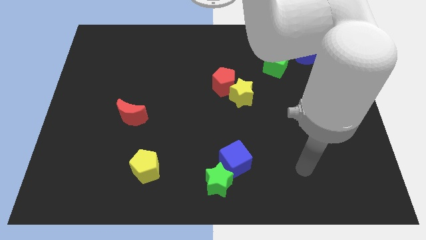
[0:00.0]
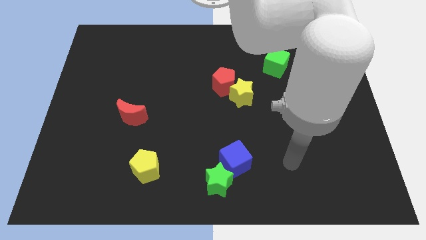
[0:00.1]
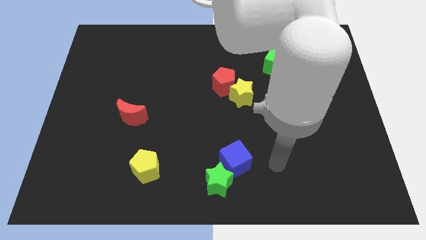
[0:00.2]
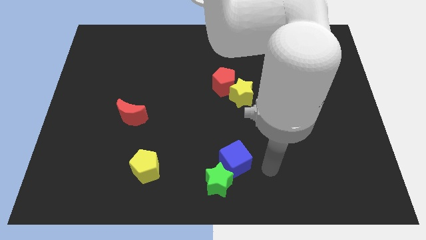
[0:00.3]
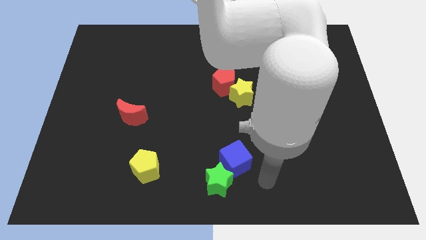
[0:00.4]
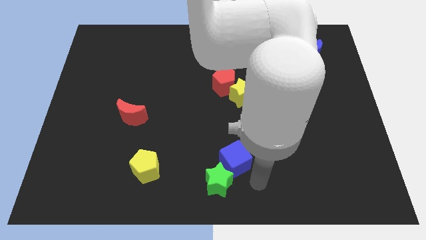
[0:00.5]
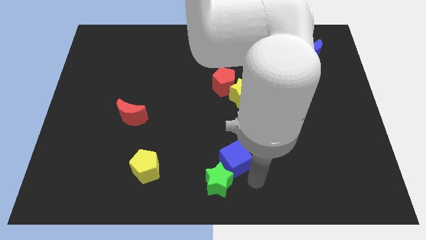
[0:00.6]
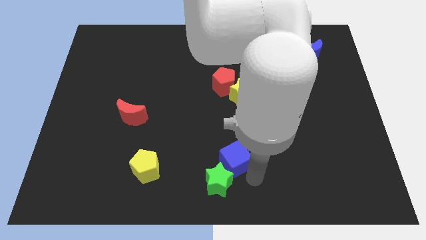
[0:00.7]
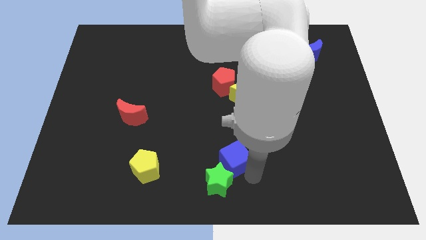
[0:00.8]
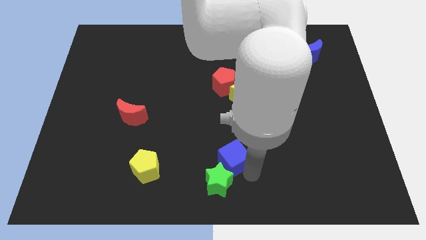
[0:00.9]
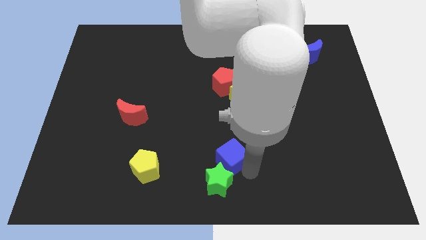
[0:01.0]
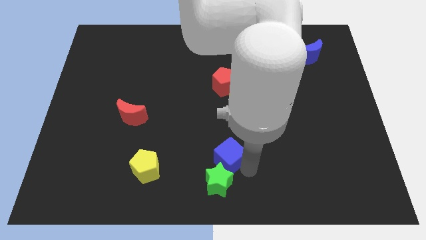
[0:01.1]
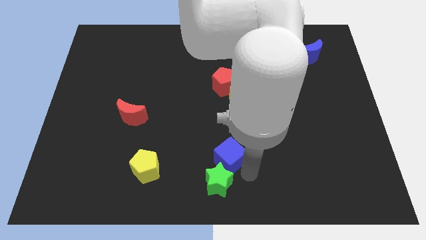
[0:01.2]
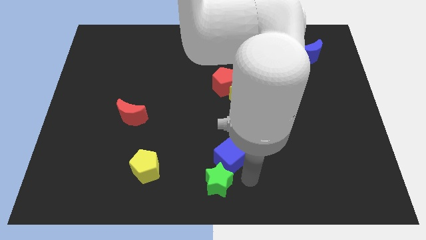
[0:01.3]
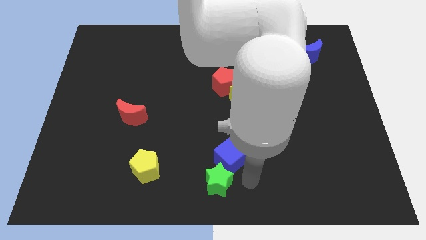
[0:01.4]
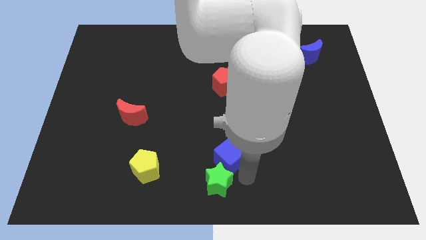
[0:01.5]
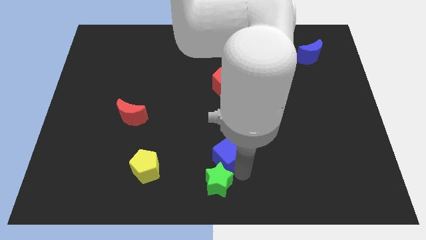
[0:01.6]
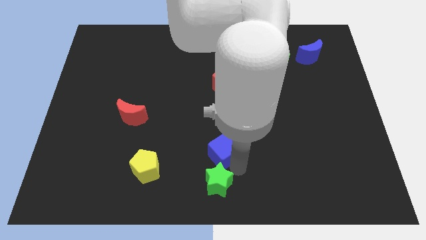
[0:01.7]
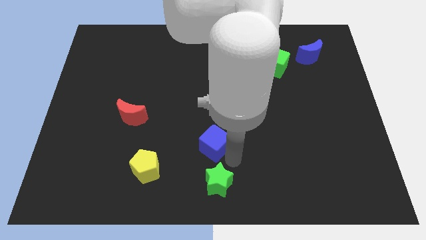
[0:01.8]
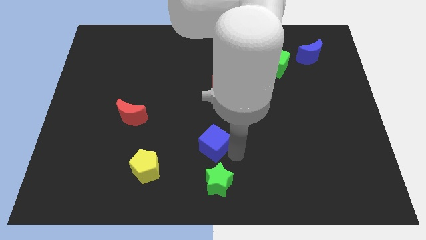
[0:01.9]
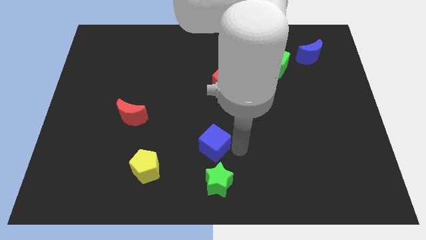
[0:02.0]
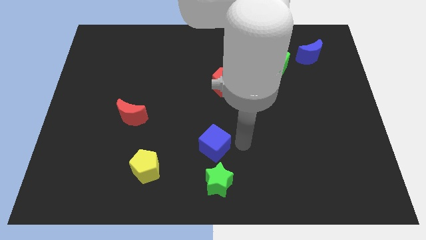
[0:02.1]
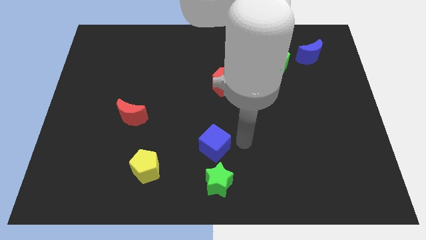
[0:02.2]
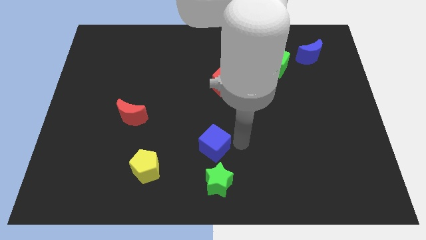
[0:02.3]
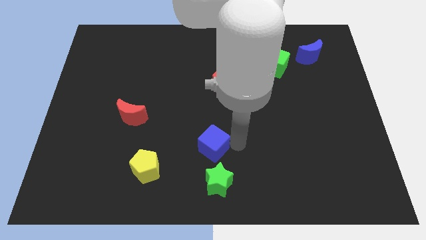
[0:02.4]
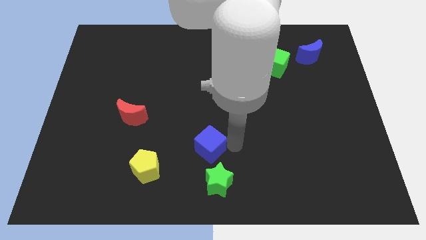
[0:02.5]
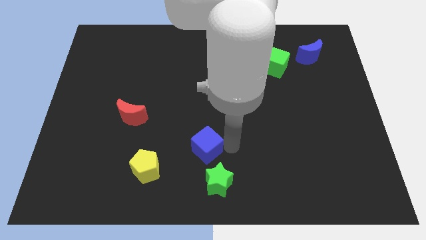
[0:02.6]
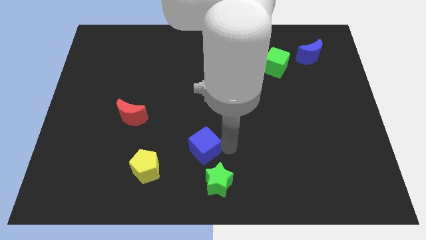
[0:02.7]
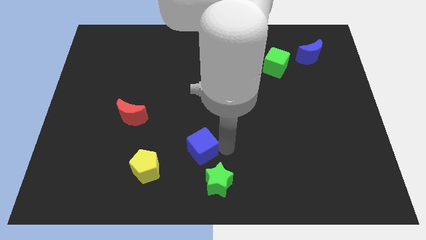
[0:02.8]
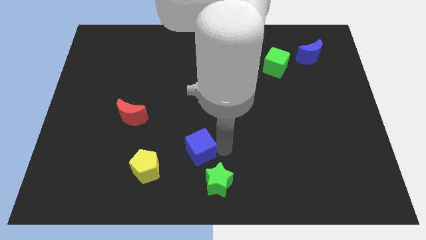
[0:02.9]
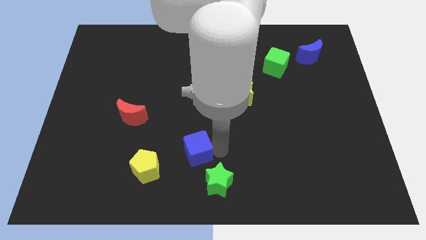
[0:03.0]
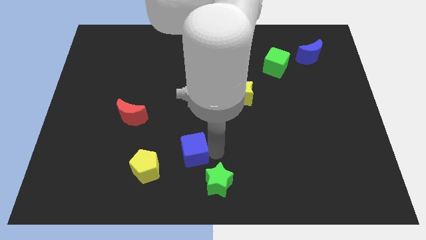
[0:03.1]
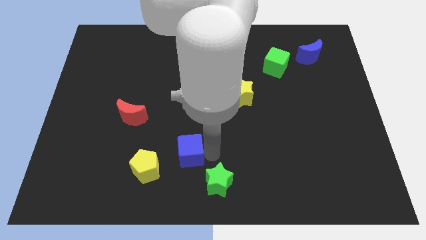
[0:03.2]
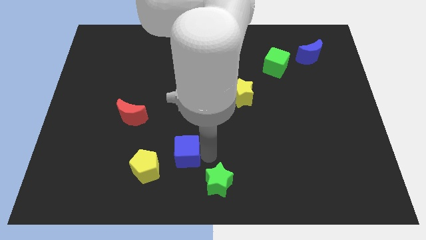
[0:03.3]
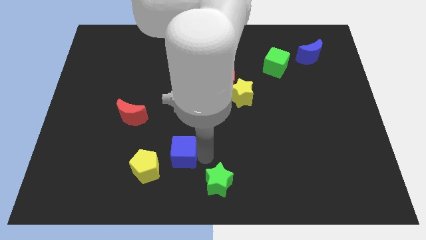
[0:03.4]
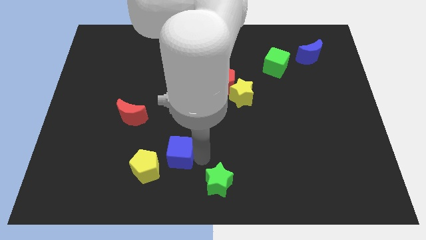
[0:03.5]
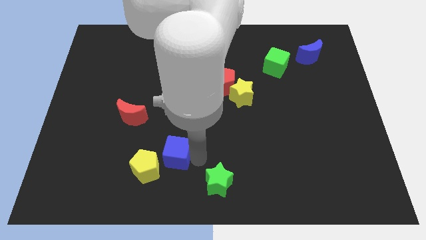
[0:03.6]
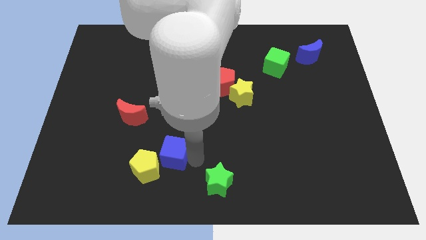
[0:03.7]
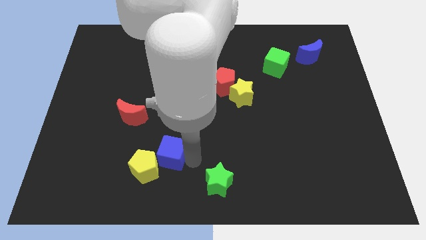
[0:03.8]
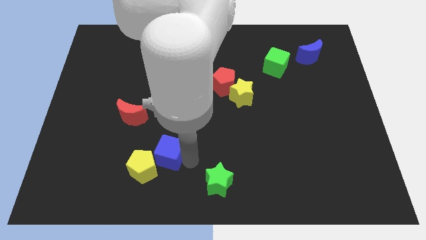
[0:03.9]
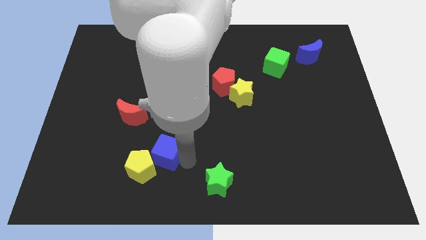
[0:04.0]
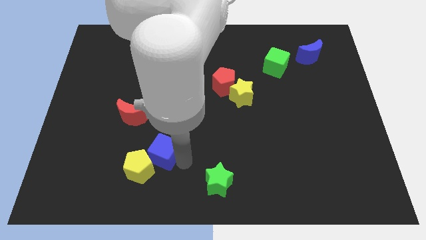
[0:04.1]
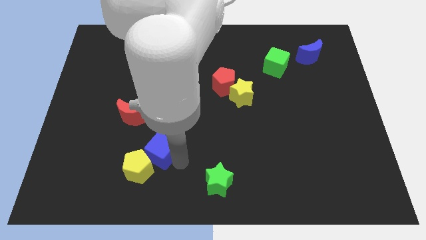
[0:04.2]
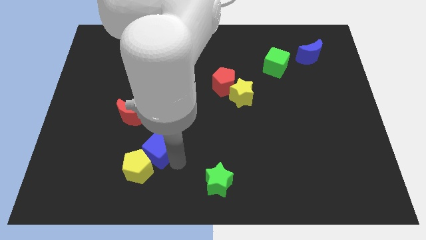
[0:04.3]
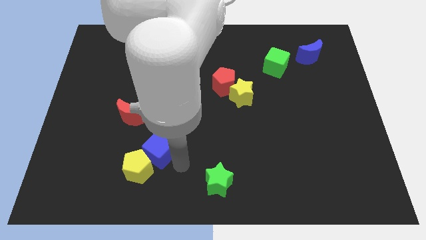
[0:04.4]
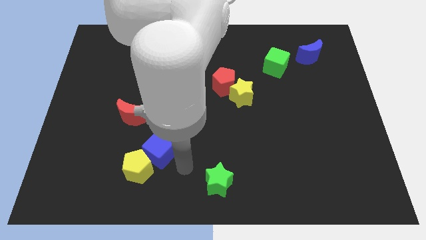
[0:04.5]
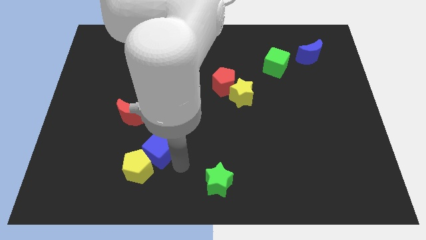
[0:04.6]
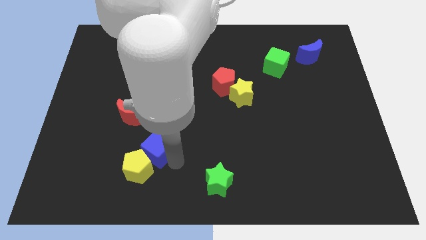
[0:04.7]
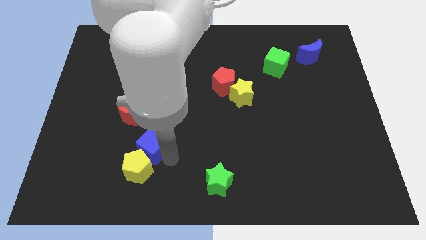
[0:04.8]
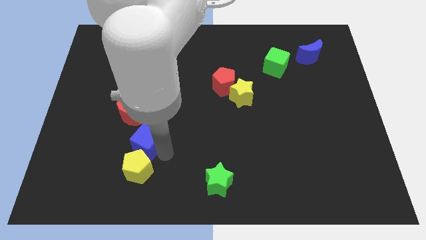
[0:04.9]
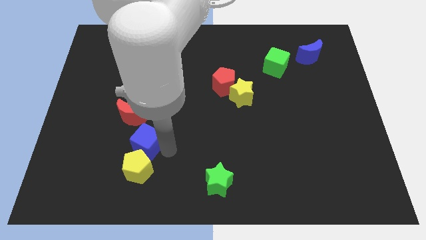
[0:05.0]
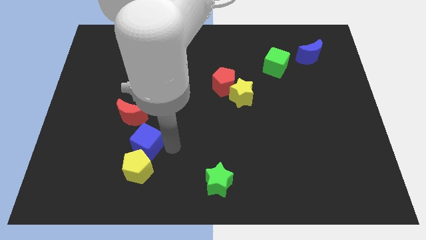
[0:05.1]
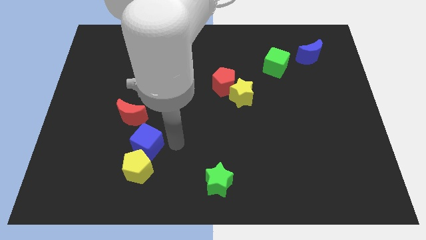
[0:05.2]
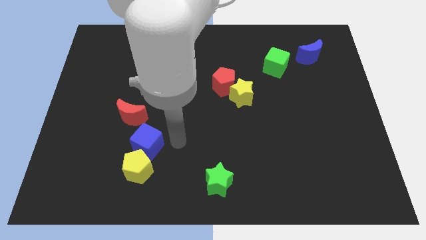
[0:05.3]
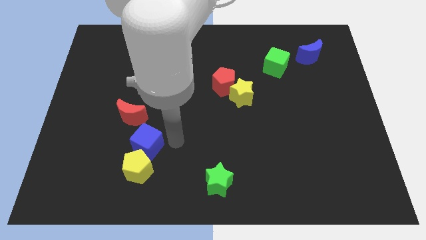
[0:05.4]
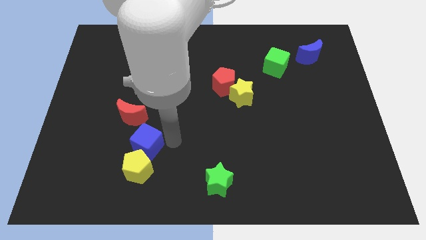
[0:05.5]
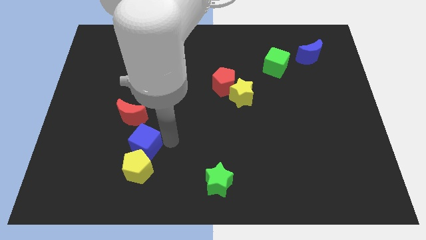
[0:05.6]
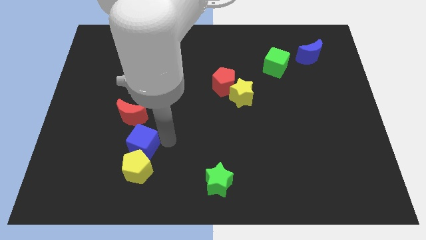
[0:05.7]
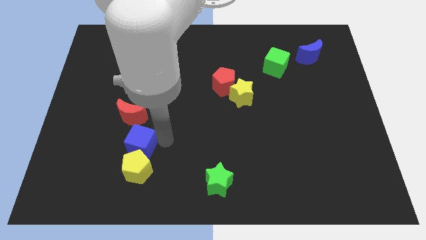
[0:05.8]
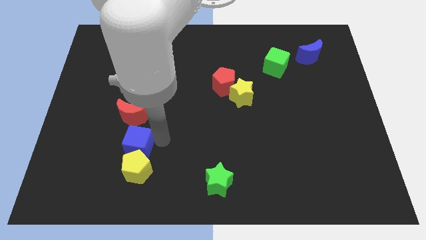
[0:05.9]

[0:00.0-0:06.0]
move the blue cube left

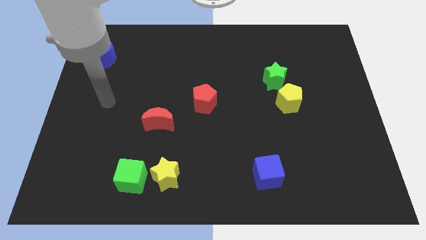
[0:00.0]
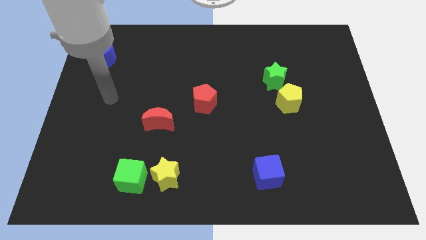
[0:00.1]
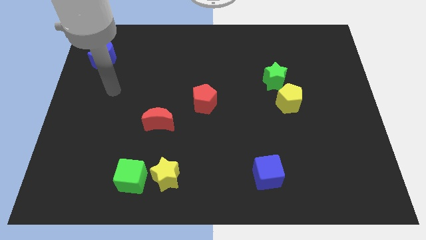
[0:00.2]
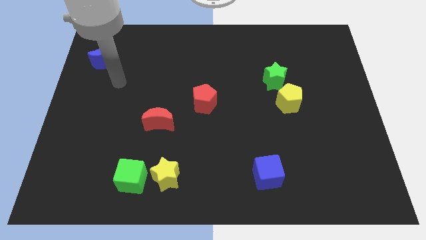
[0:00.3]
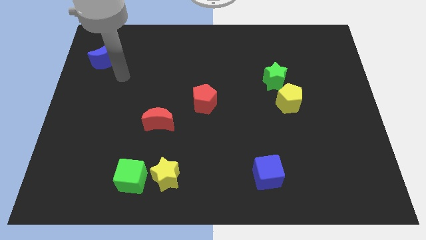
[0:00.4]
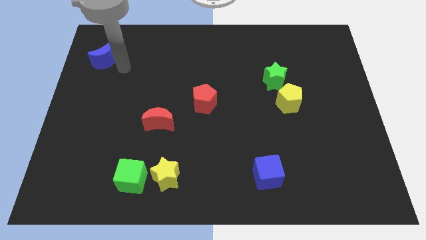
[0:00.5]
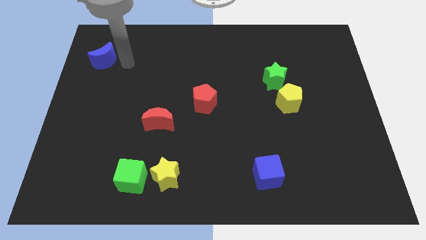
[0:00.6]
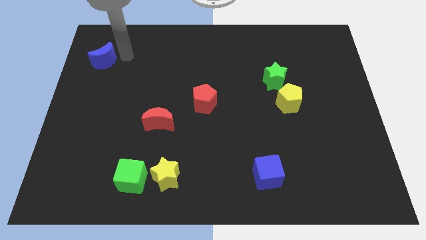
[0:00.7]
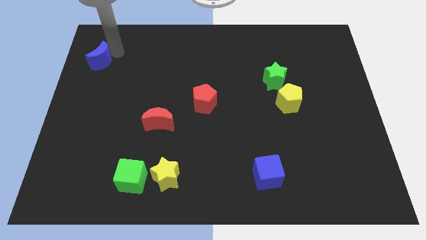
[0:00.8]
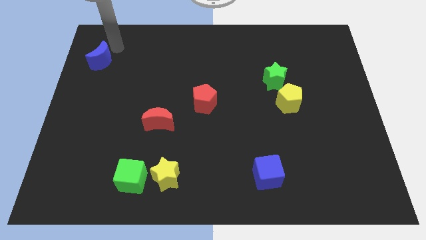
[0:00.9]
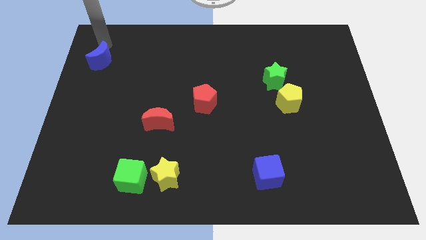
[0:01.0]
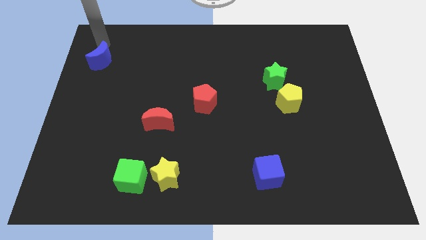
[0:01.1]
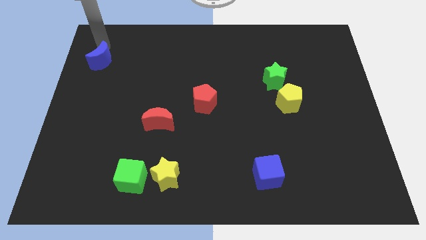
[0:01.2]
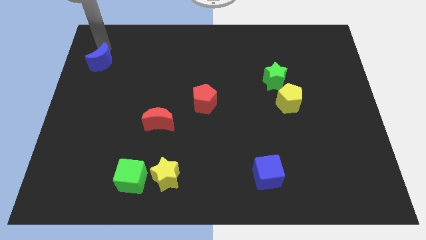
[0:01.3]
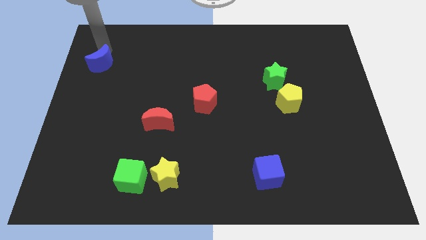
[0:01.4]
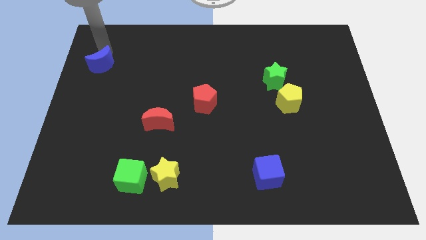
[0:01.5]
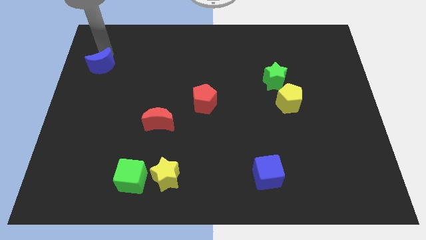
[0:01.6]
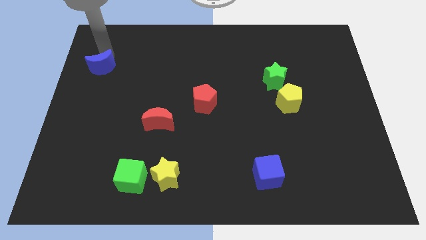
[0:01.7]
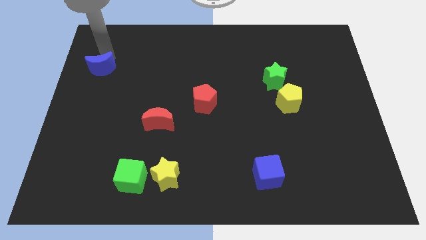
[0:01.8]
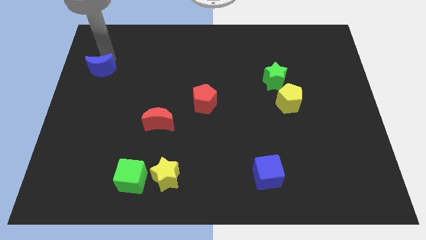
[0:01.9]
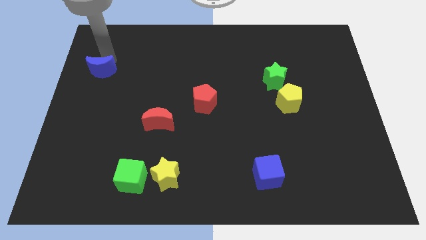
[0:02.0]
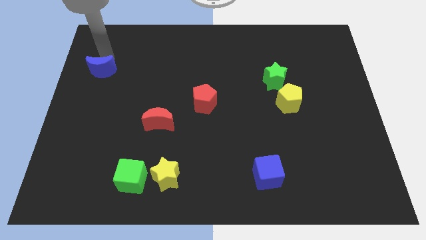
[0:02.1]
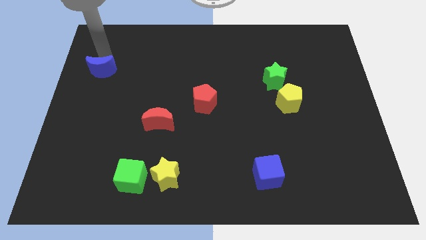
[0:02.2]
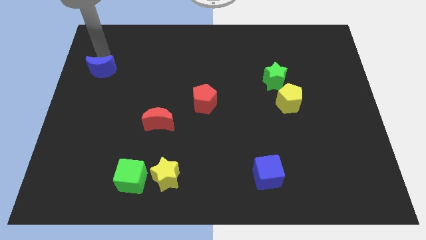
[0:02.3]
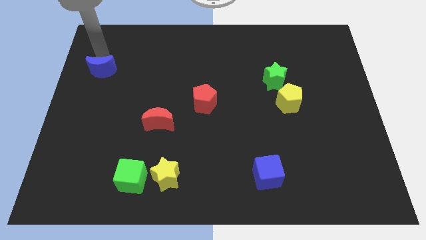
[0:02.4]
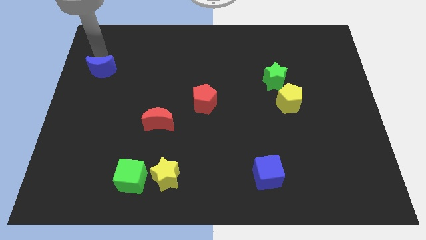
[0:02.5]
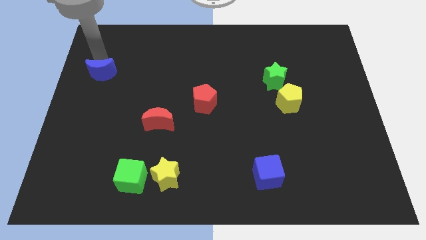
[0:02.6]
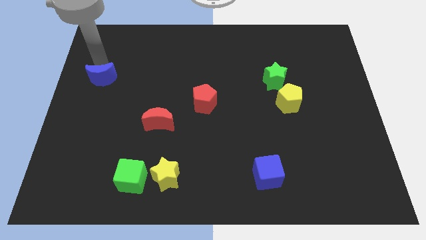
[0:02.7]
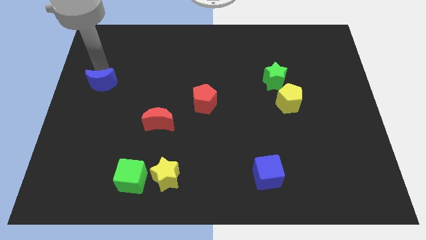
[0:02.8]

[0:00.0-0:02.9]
move the blue moon somewhat down
